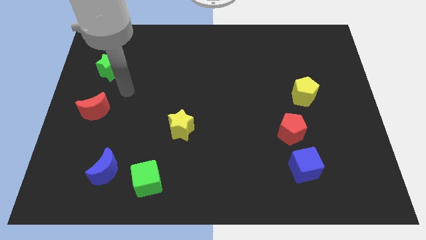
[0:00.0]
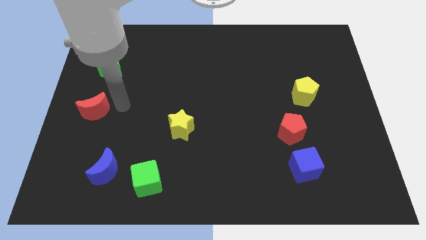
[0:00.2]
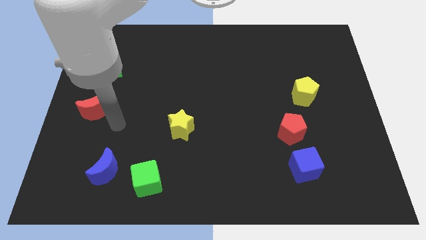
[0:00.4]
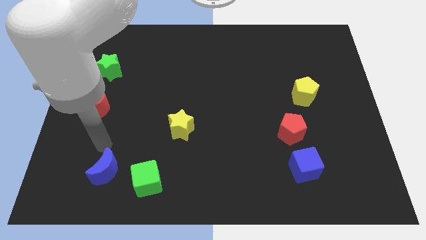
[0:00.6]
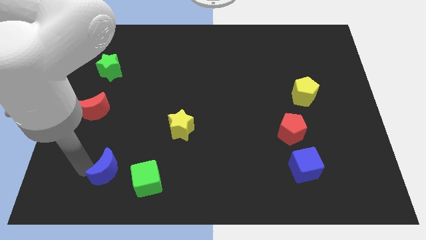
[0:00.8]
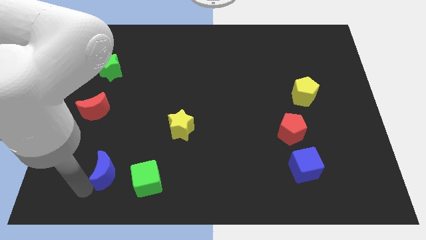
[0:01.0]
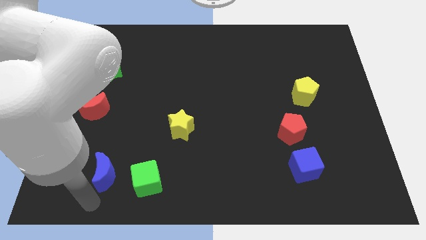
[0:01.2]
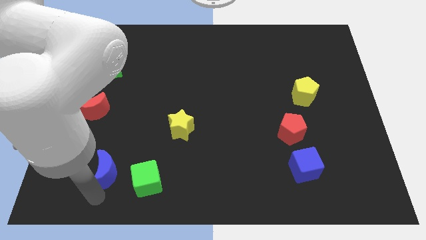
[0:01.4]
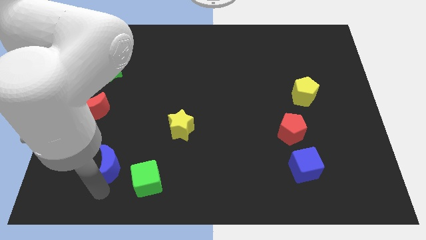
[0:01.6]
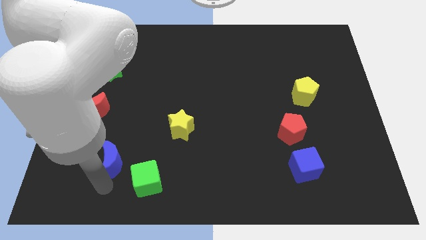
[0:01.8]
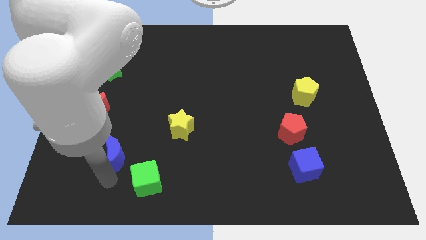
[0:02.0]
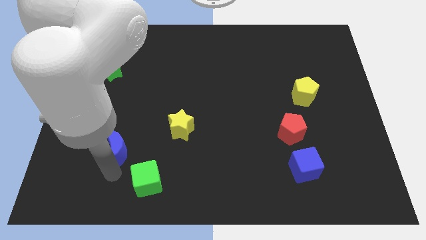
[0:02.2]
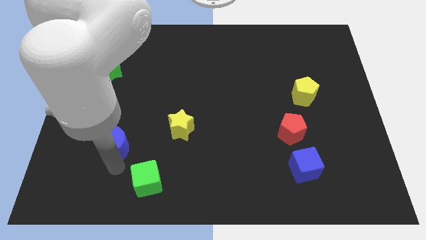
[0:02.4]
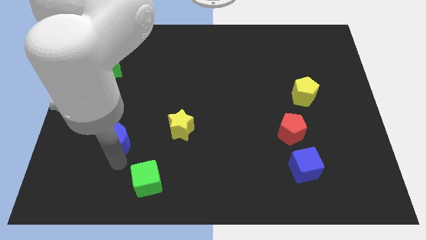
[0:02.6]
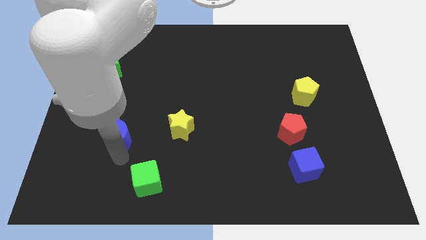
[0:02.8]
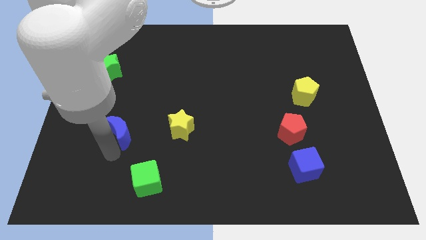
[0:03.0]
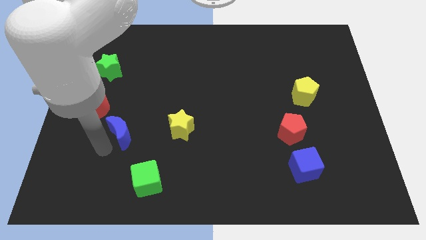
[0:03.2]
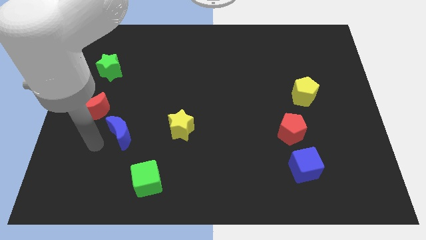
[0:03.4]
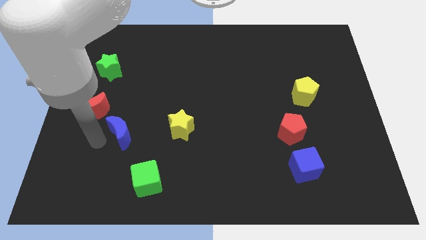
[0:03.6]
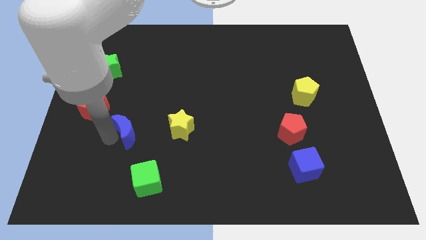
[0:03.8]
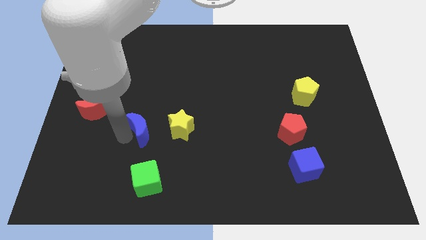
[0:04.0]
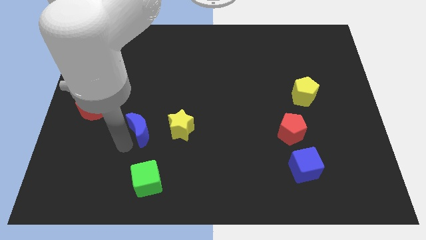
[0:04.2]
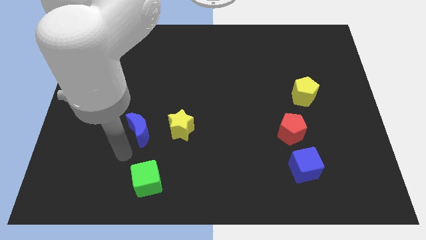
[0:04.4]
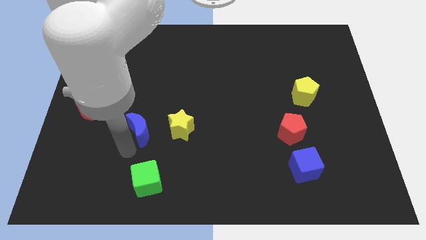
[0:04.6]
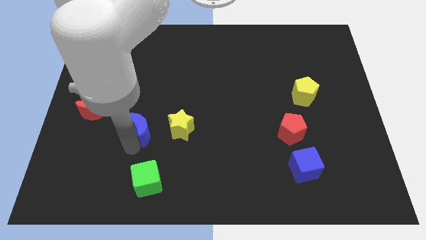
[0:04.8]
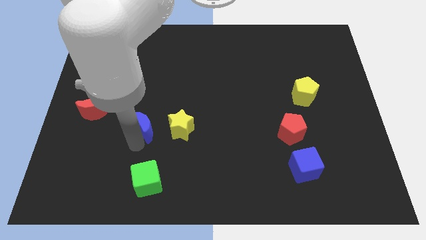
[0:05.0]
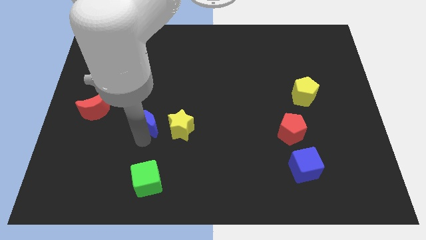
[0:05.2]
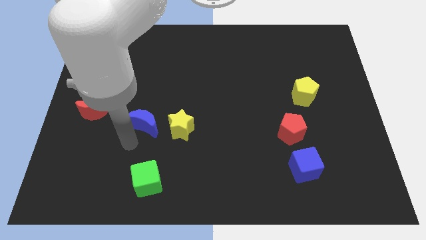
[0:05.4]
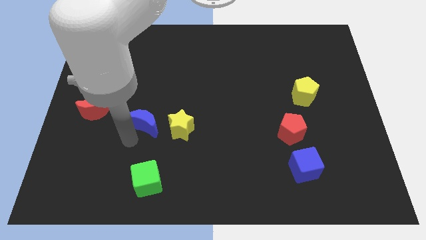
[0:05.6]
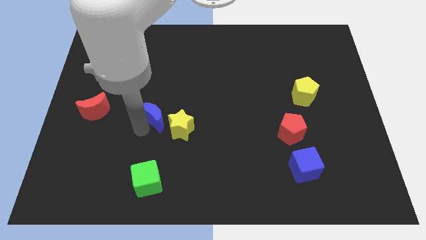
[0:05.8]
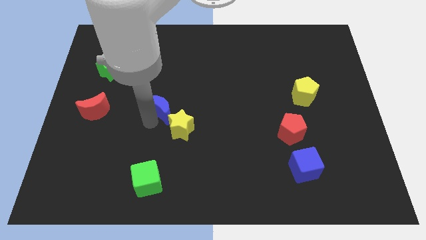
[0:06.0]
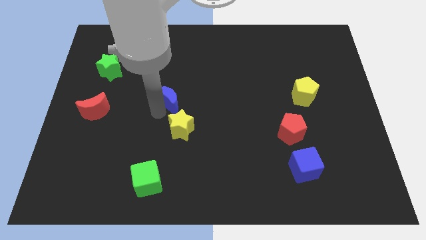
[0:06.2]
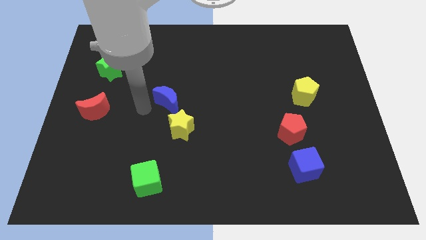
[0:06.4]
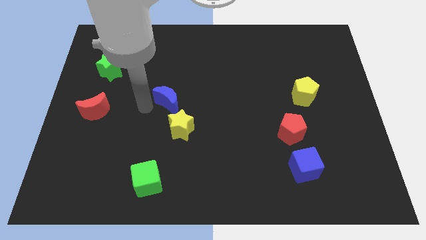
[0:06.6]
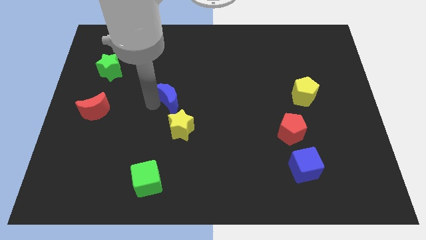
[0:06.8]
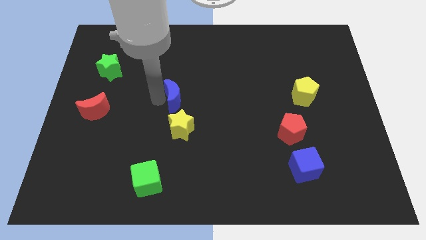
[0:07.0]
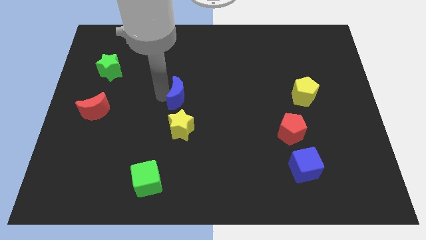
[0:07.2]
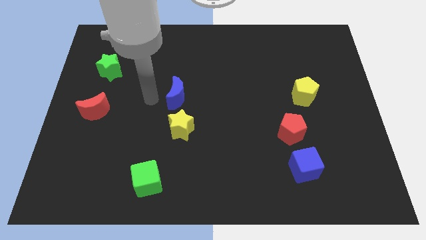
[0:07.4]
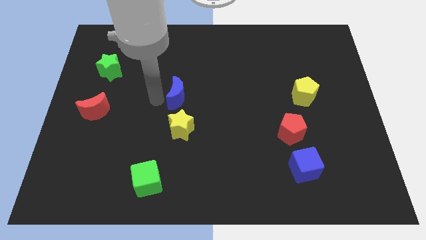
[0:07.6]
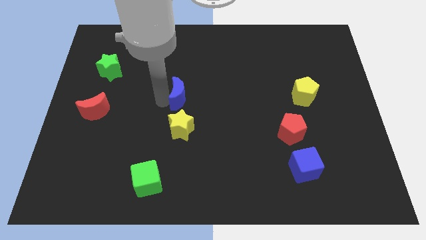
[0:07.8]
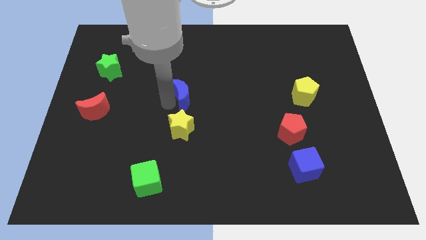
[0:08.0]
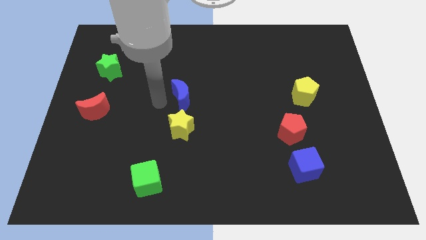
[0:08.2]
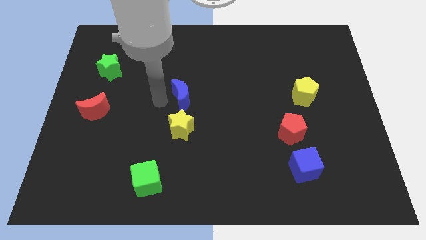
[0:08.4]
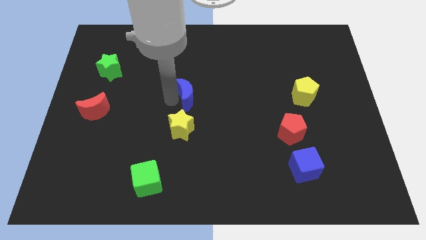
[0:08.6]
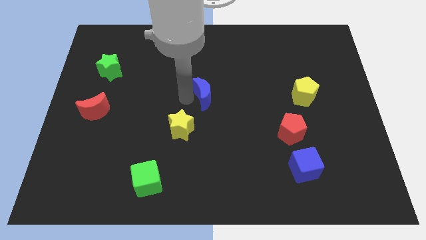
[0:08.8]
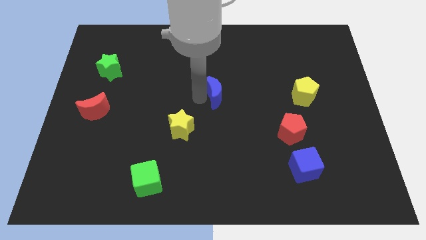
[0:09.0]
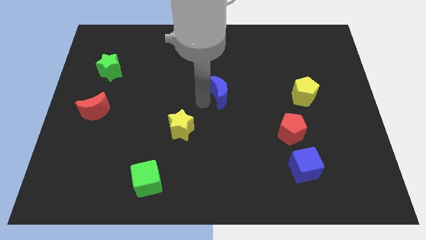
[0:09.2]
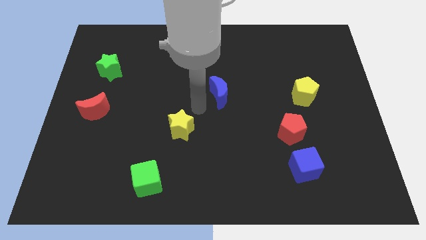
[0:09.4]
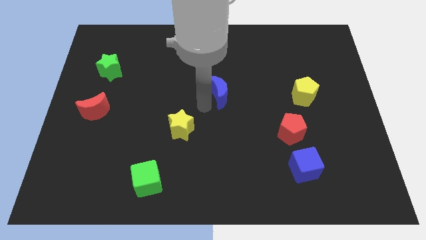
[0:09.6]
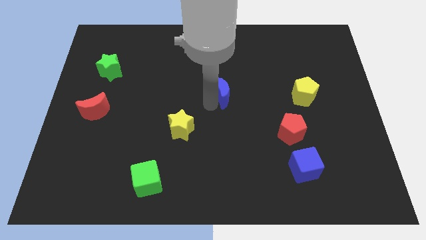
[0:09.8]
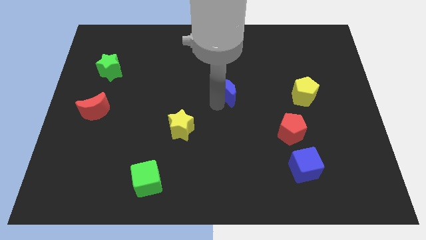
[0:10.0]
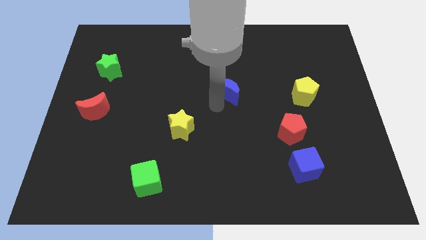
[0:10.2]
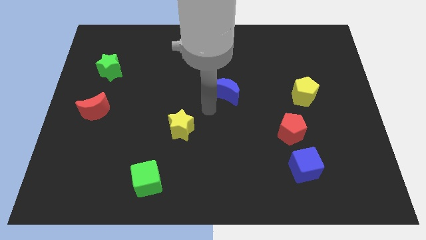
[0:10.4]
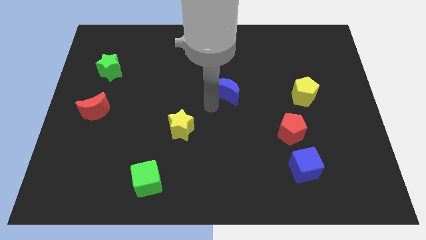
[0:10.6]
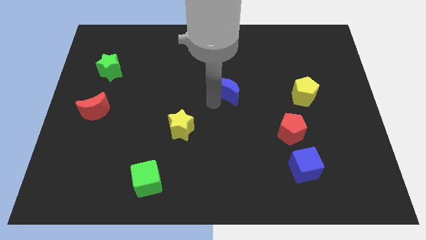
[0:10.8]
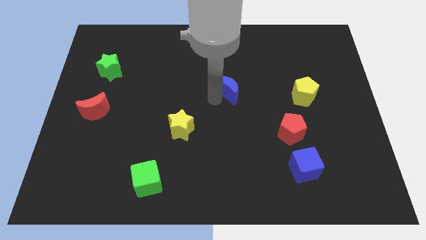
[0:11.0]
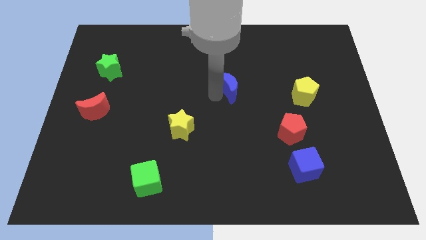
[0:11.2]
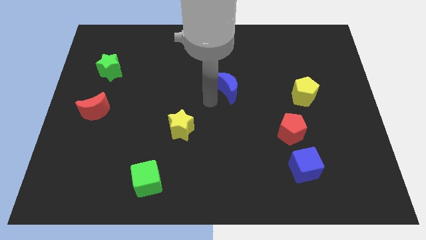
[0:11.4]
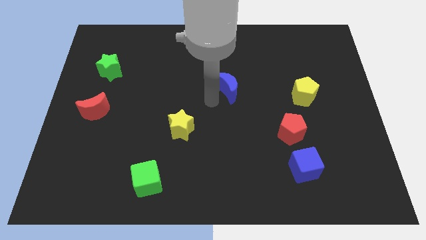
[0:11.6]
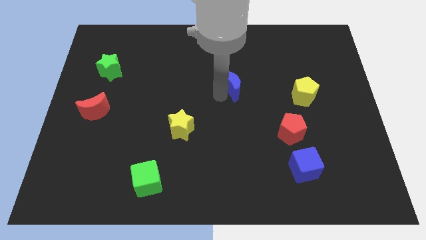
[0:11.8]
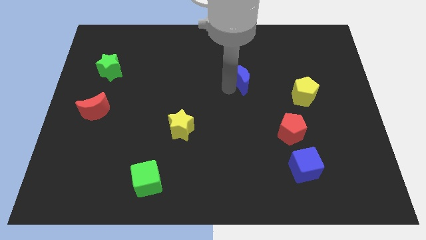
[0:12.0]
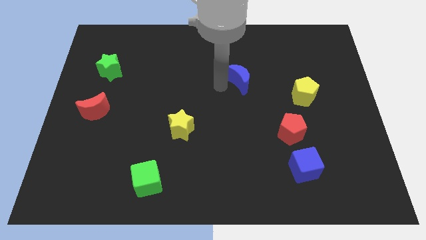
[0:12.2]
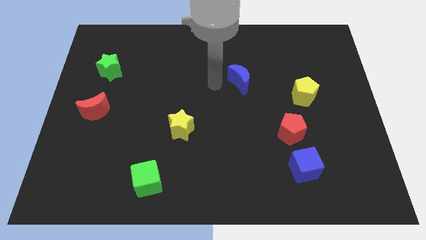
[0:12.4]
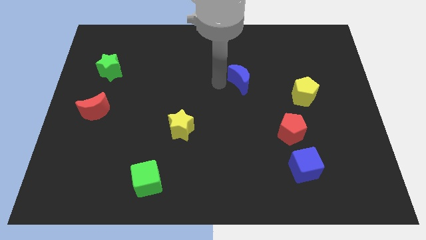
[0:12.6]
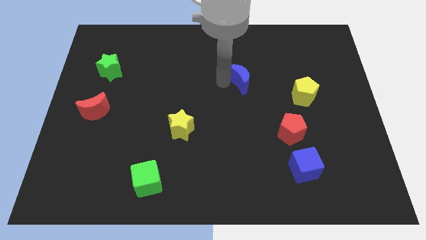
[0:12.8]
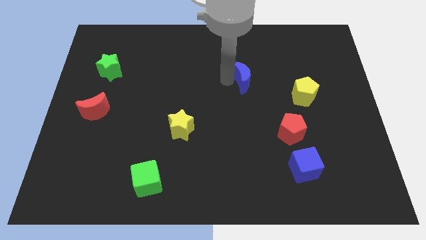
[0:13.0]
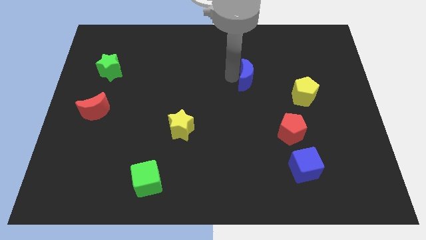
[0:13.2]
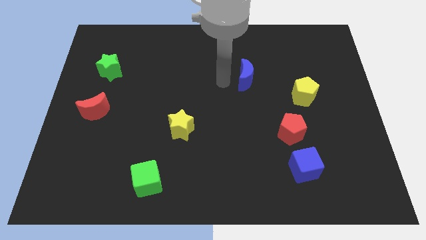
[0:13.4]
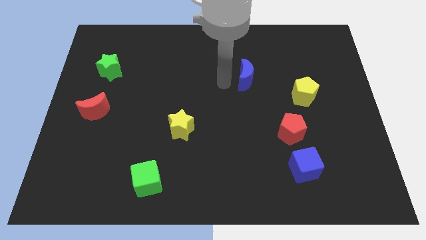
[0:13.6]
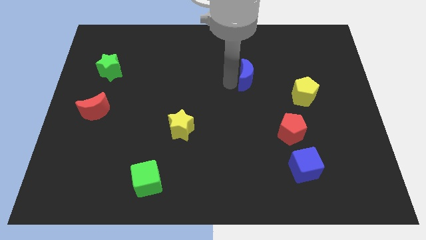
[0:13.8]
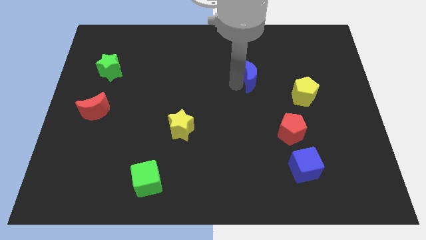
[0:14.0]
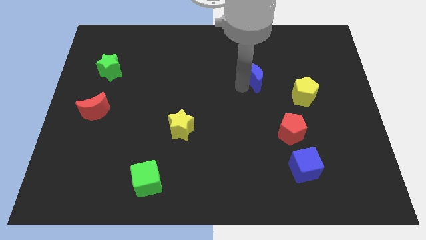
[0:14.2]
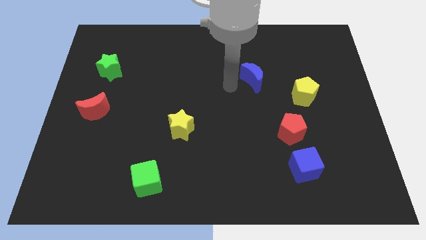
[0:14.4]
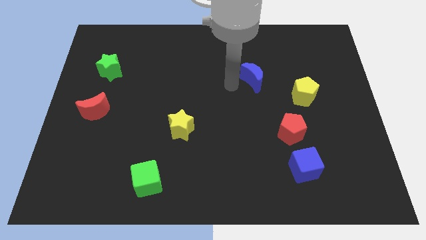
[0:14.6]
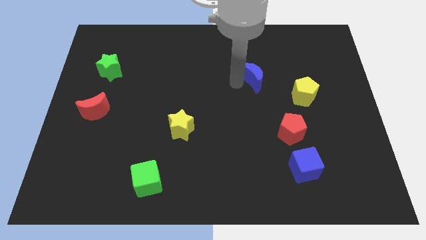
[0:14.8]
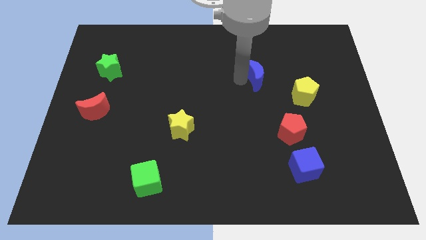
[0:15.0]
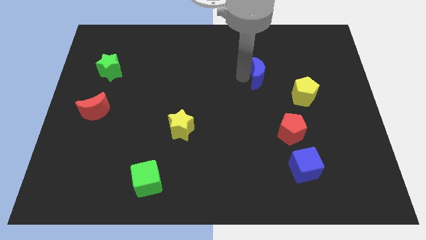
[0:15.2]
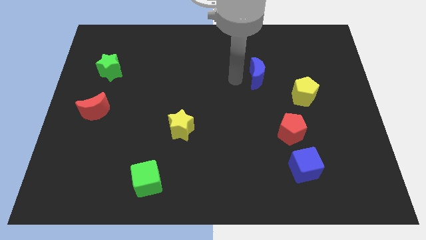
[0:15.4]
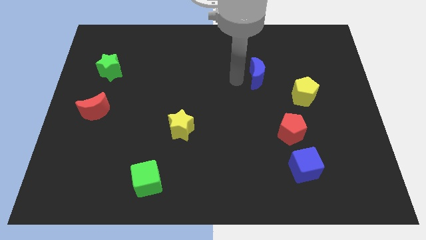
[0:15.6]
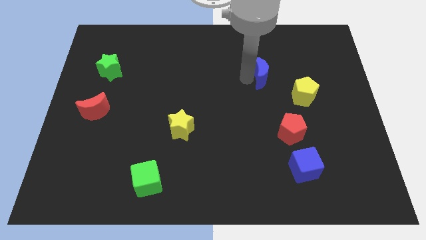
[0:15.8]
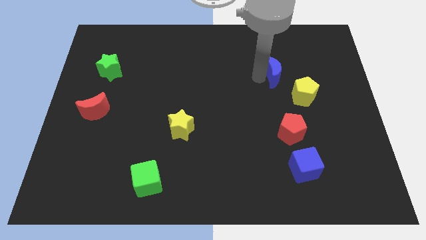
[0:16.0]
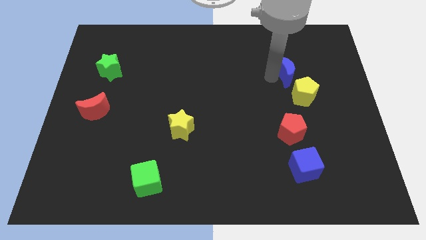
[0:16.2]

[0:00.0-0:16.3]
slide the blue moon to the top side of the yellow pentagon
